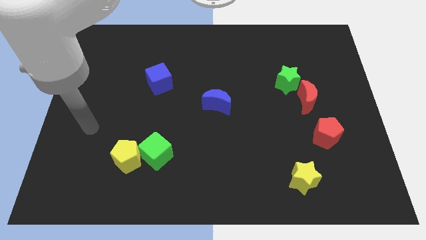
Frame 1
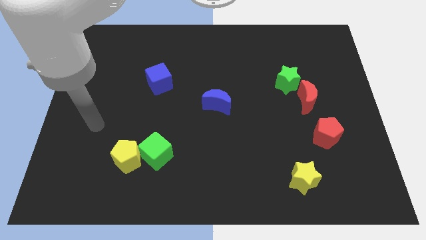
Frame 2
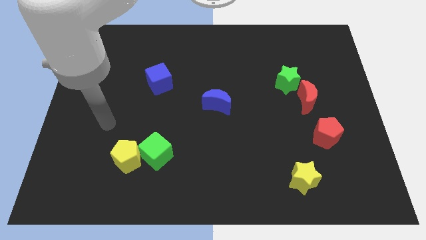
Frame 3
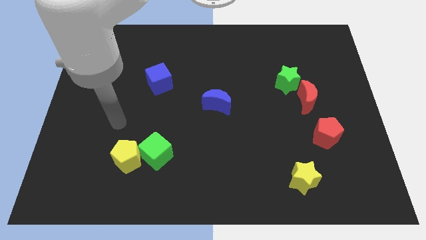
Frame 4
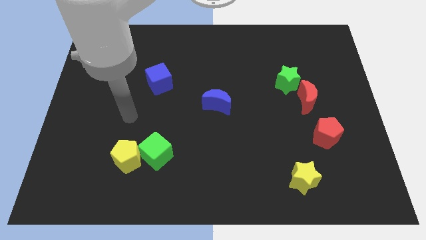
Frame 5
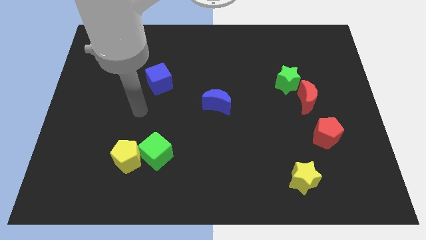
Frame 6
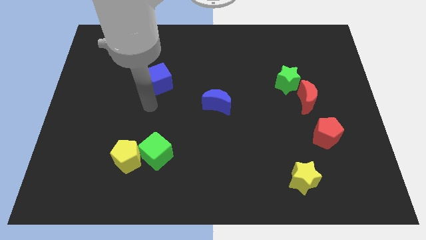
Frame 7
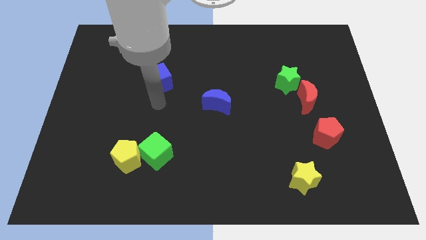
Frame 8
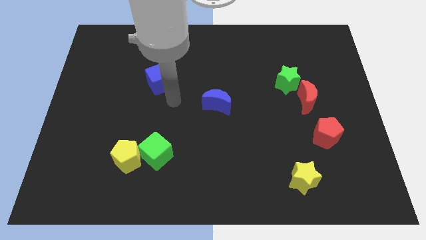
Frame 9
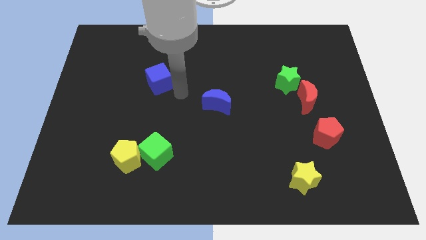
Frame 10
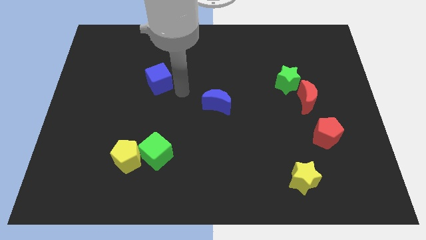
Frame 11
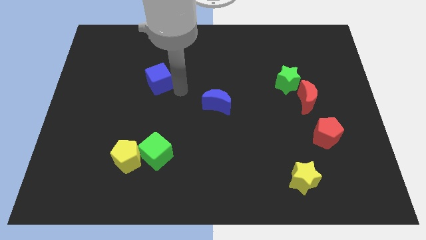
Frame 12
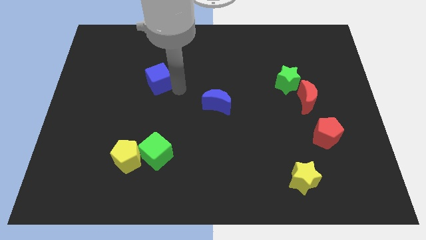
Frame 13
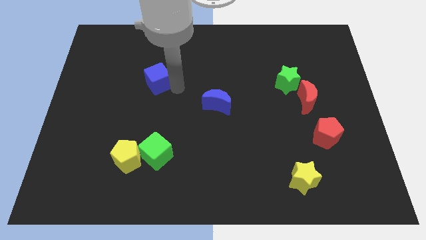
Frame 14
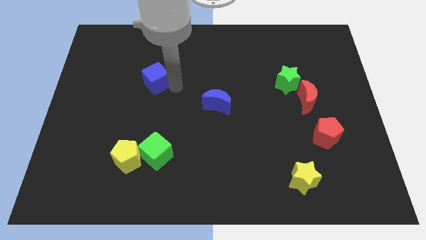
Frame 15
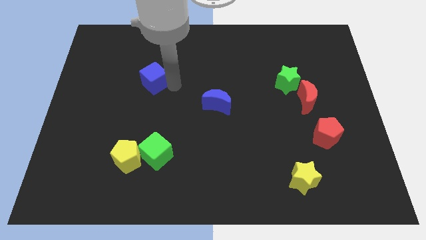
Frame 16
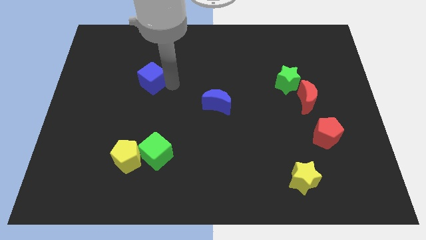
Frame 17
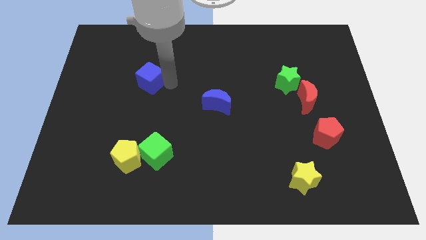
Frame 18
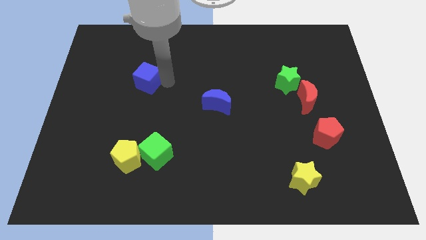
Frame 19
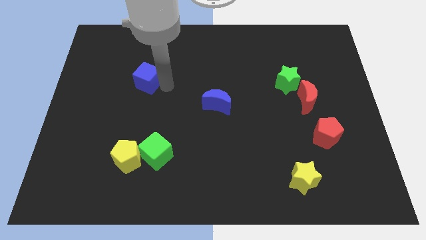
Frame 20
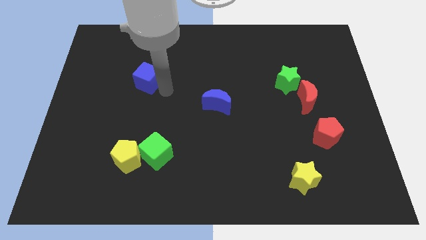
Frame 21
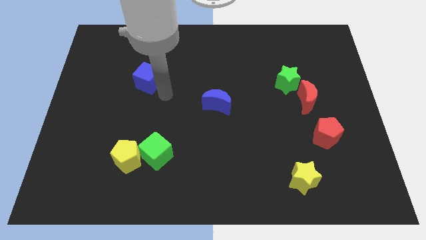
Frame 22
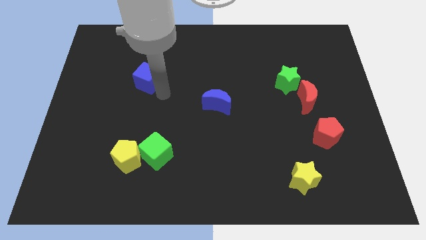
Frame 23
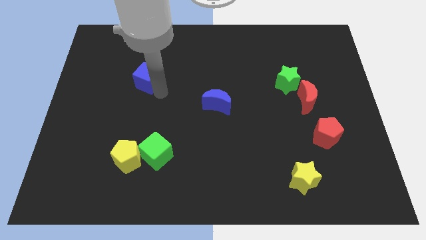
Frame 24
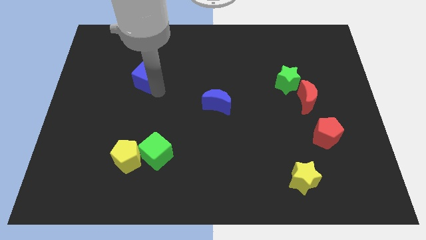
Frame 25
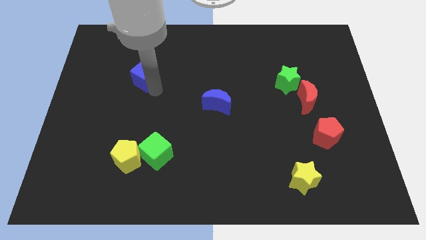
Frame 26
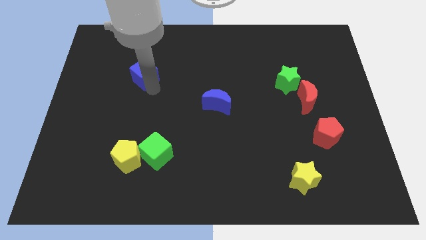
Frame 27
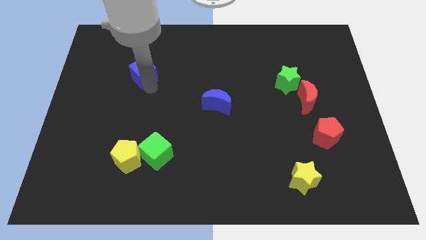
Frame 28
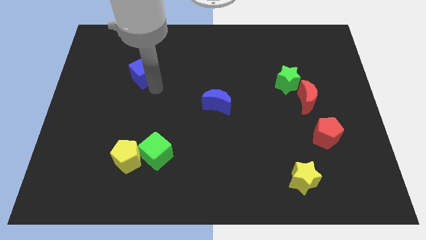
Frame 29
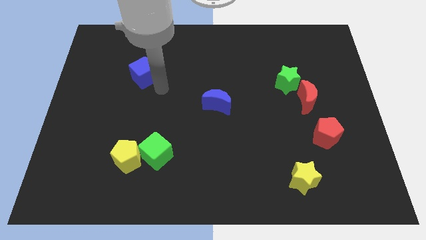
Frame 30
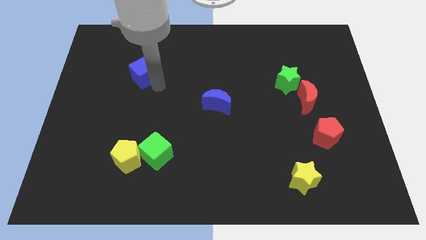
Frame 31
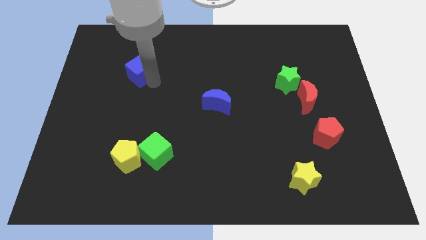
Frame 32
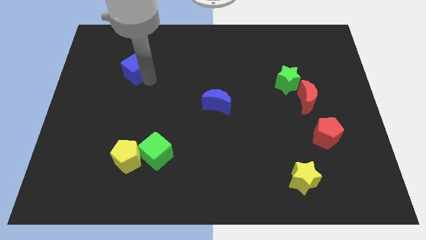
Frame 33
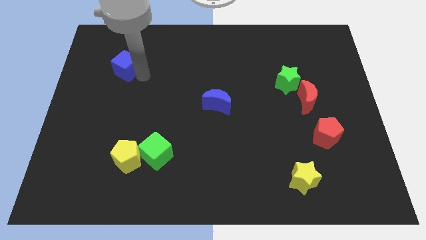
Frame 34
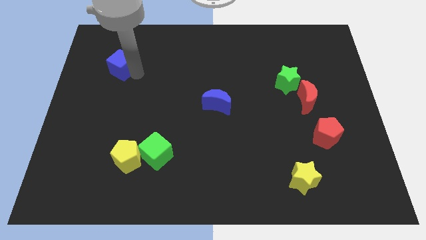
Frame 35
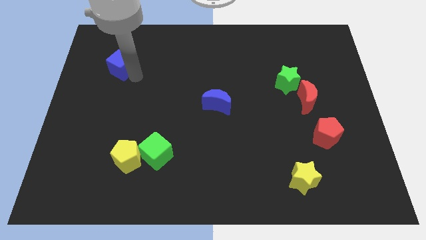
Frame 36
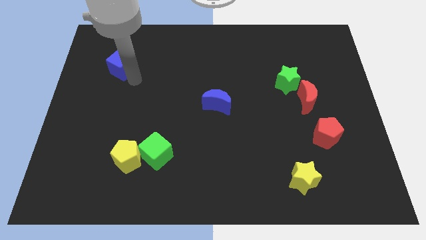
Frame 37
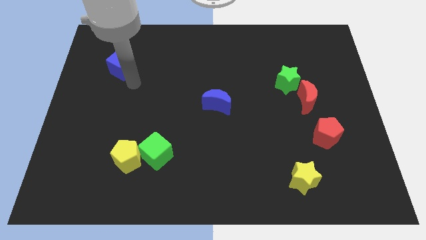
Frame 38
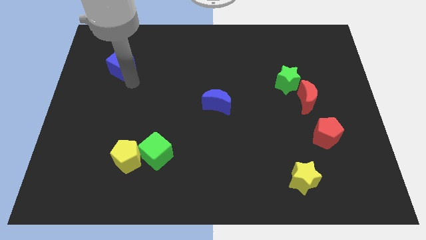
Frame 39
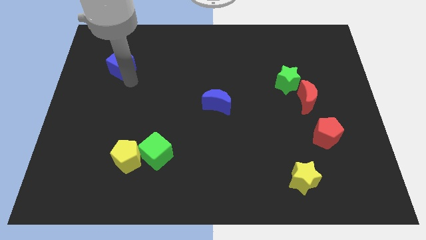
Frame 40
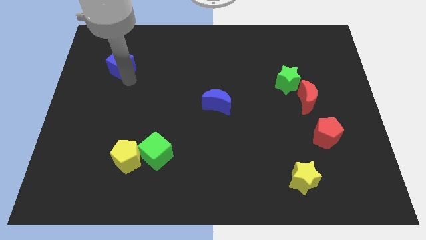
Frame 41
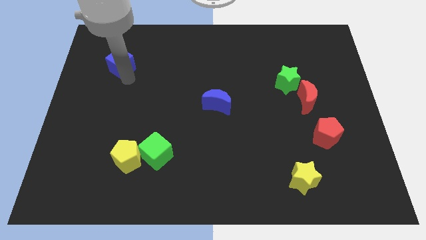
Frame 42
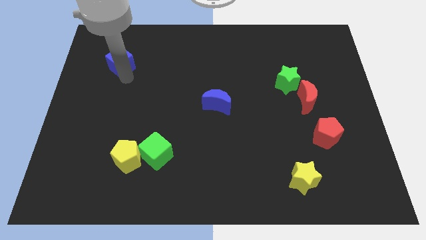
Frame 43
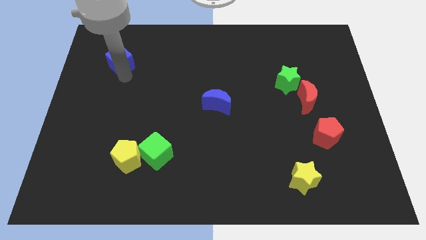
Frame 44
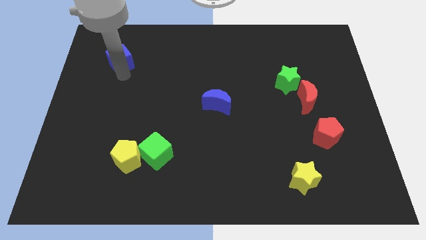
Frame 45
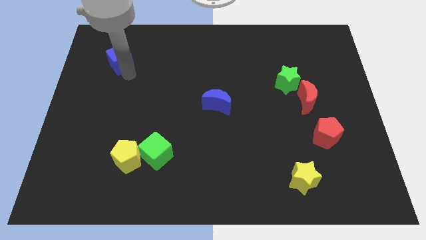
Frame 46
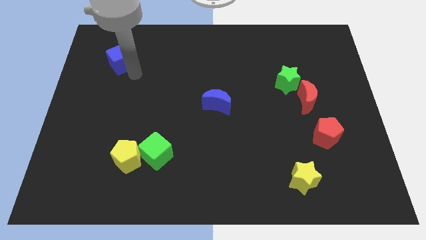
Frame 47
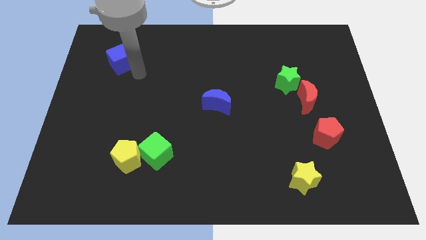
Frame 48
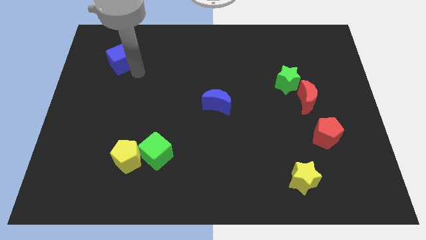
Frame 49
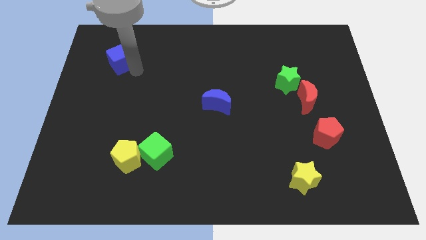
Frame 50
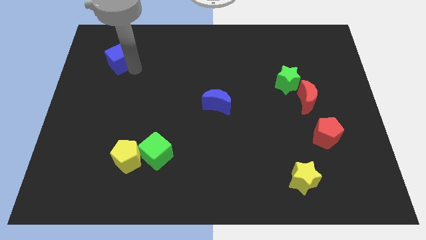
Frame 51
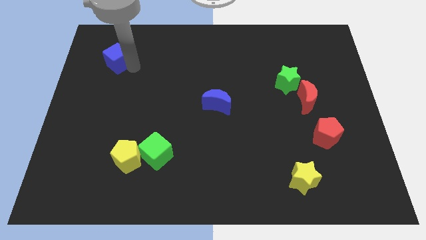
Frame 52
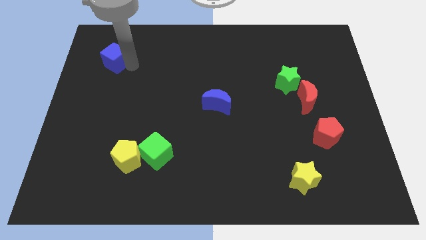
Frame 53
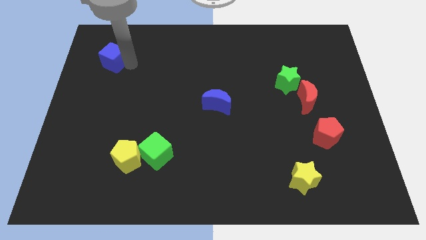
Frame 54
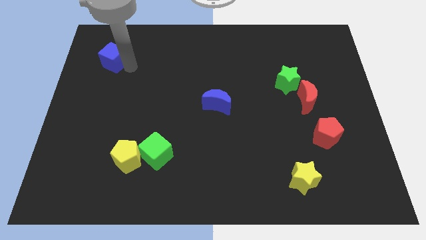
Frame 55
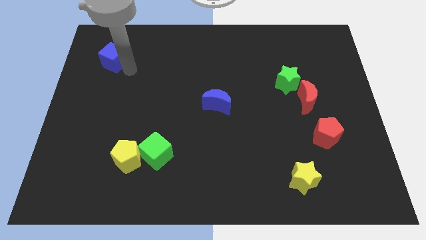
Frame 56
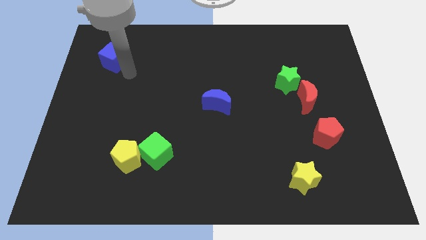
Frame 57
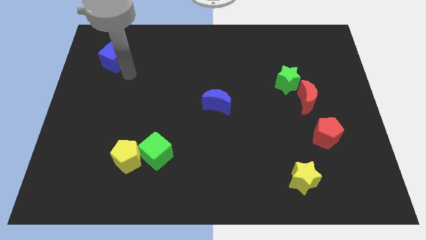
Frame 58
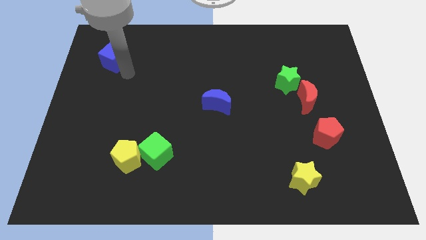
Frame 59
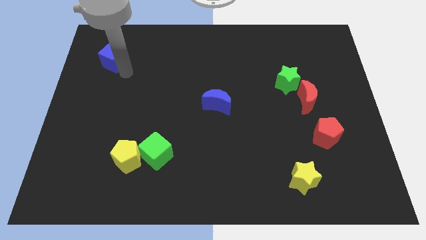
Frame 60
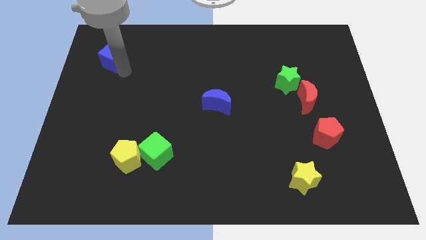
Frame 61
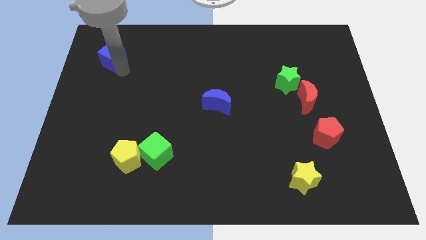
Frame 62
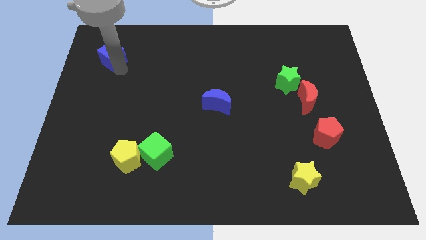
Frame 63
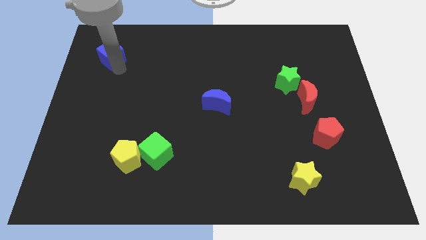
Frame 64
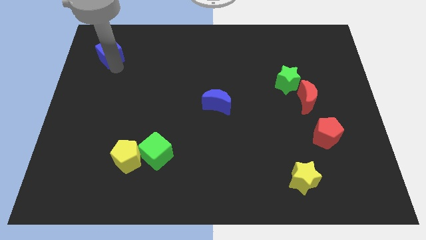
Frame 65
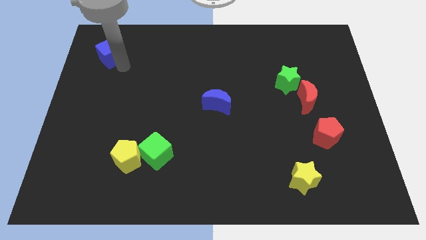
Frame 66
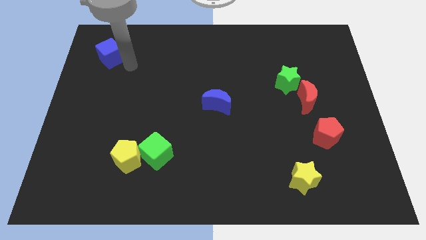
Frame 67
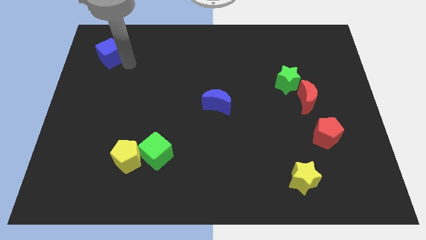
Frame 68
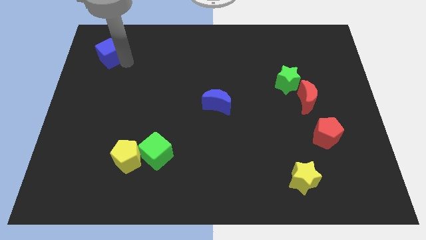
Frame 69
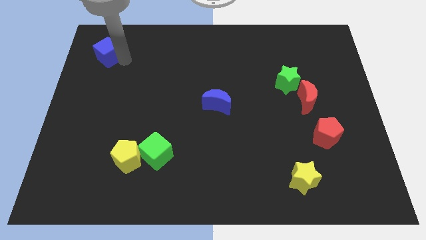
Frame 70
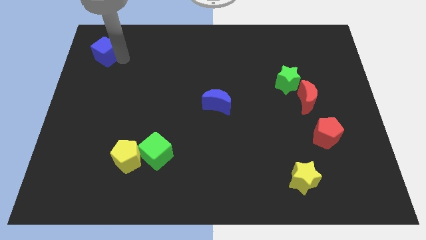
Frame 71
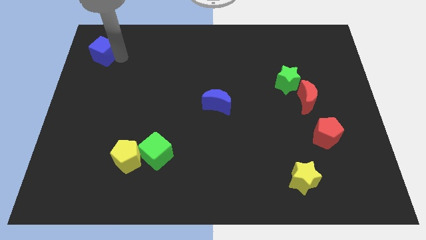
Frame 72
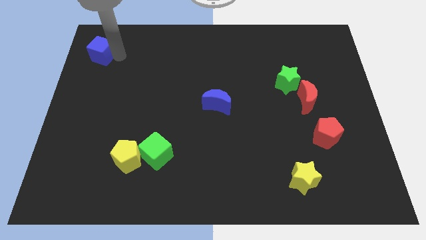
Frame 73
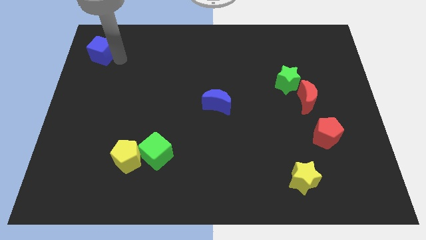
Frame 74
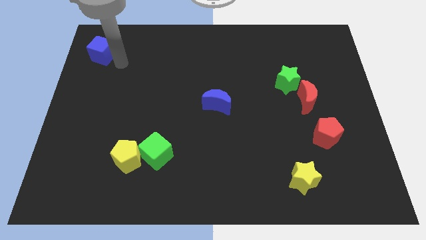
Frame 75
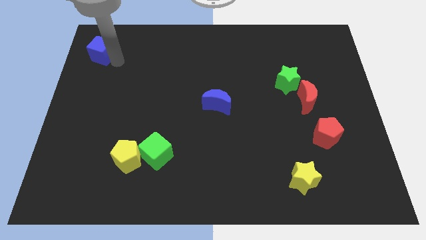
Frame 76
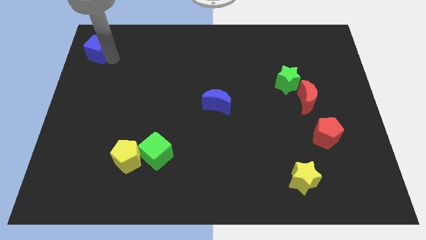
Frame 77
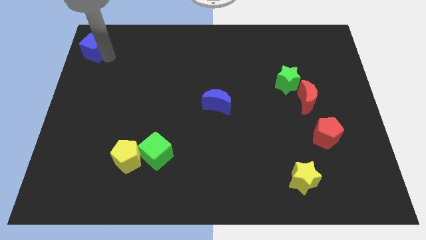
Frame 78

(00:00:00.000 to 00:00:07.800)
slide the blue cube to the top left

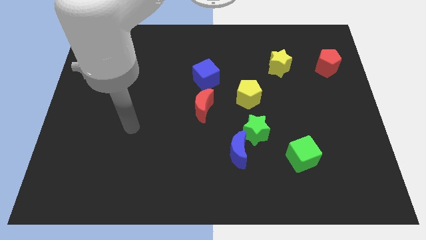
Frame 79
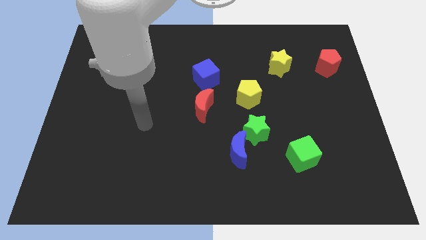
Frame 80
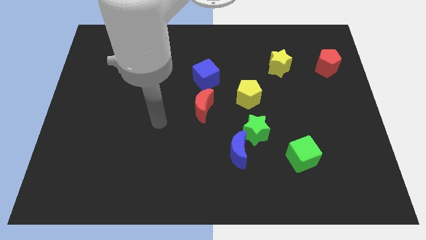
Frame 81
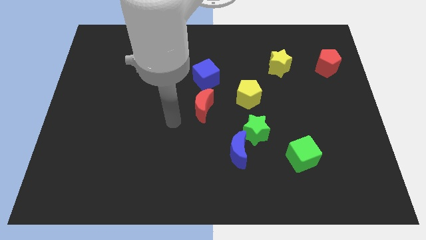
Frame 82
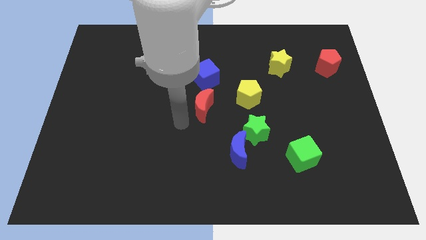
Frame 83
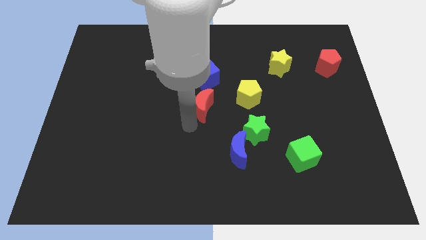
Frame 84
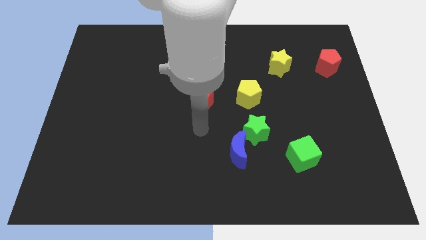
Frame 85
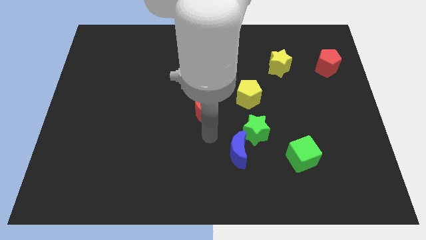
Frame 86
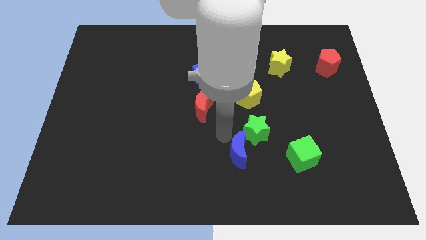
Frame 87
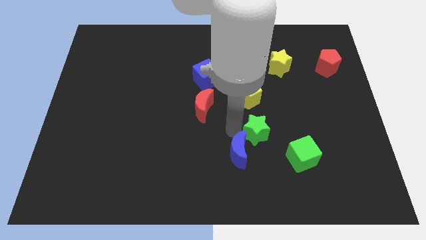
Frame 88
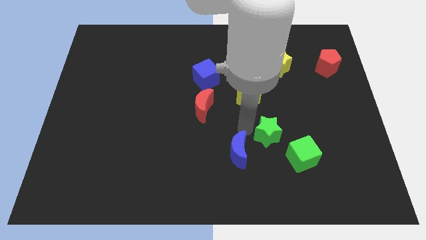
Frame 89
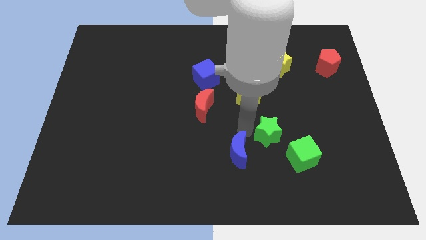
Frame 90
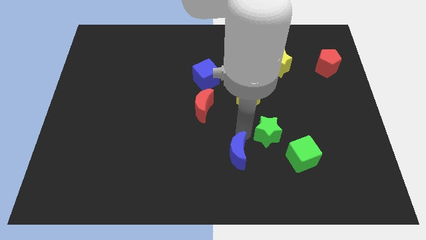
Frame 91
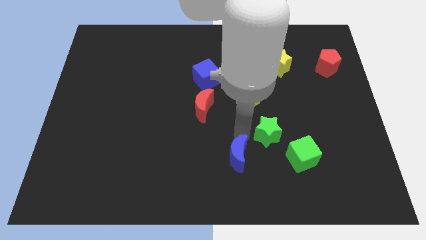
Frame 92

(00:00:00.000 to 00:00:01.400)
push the blue moon to the bottom side
